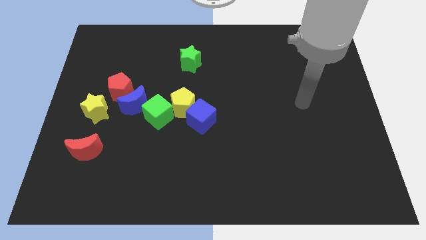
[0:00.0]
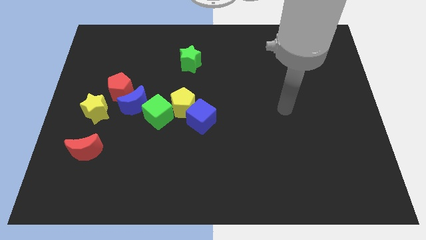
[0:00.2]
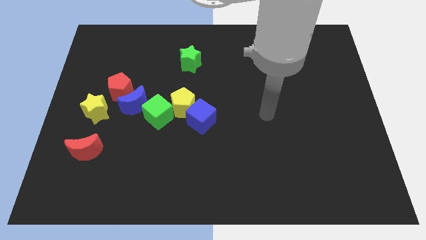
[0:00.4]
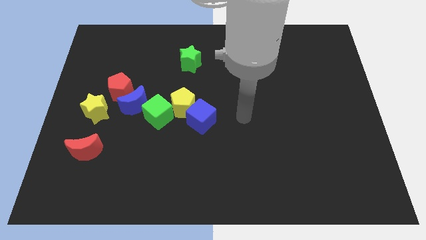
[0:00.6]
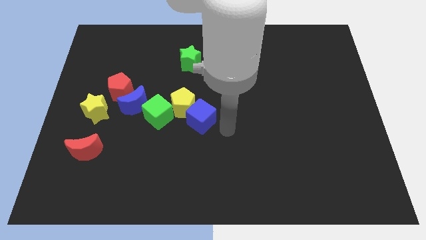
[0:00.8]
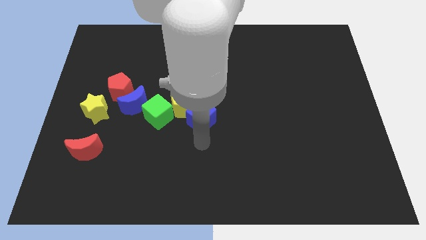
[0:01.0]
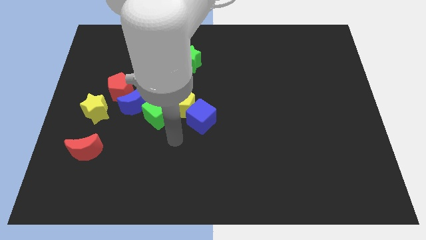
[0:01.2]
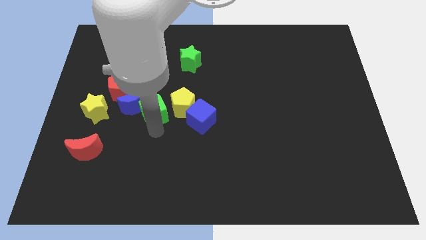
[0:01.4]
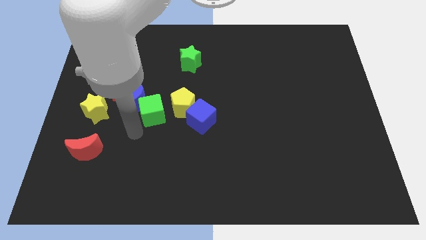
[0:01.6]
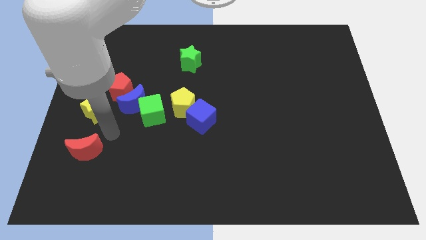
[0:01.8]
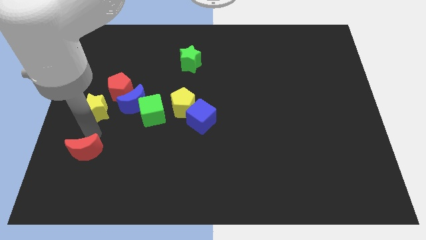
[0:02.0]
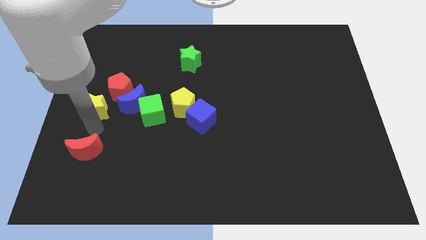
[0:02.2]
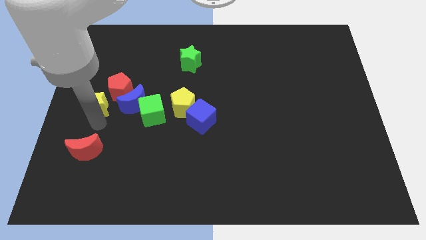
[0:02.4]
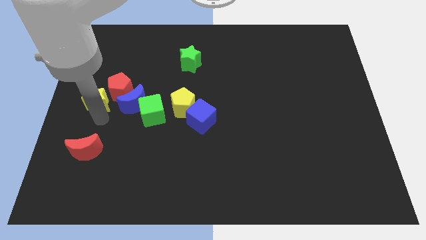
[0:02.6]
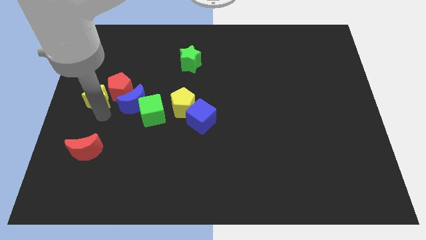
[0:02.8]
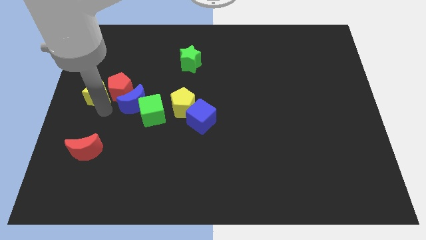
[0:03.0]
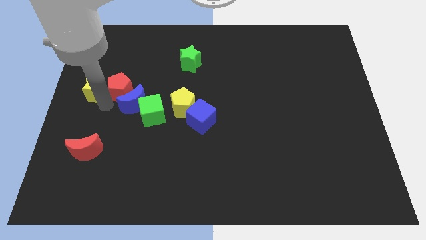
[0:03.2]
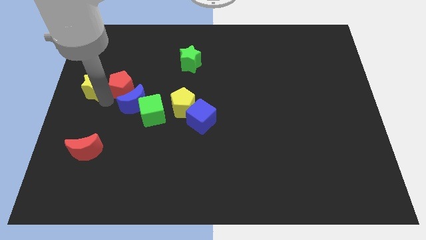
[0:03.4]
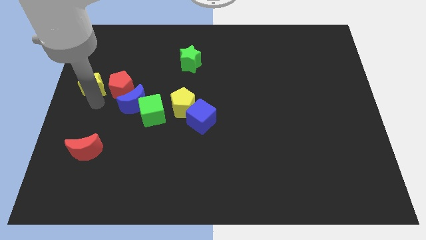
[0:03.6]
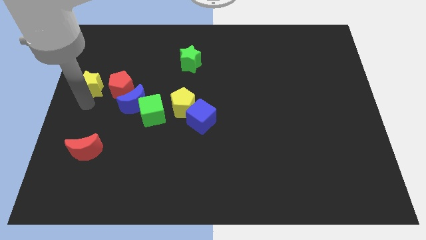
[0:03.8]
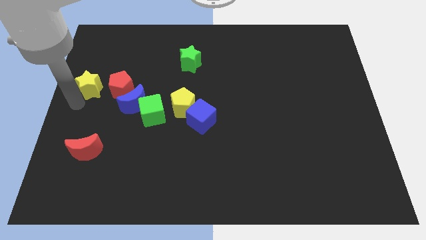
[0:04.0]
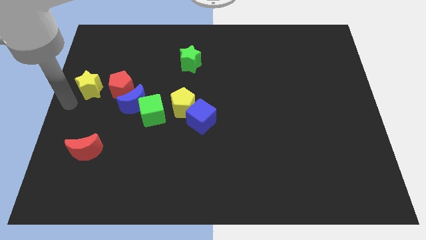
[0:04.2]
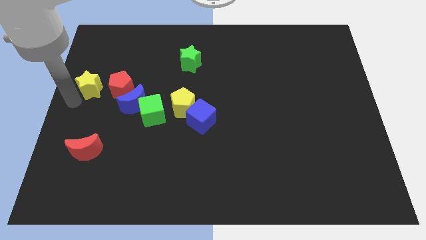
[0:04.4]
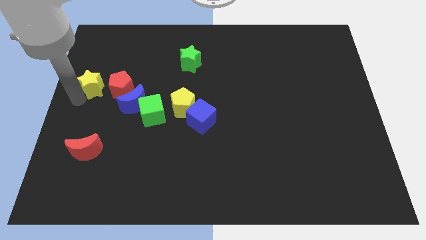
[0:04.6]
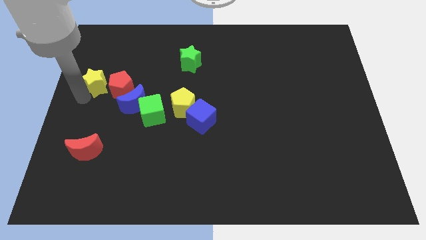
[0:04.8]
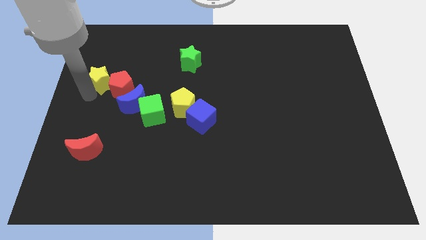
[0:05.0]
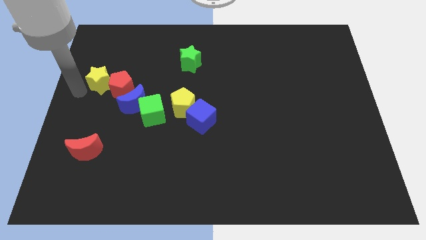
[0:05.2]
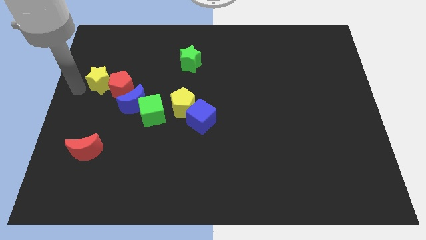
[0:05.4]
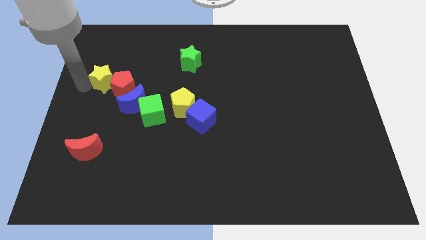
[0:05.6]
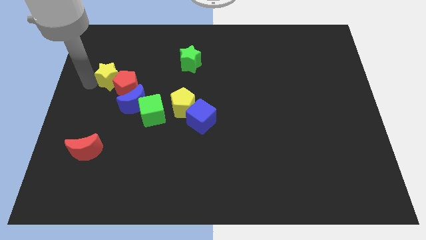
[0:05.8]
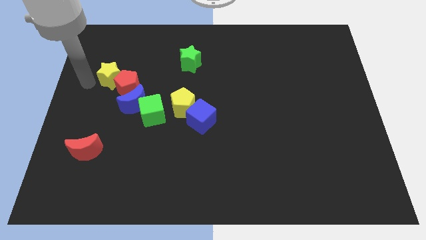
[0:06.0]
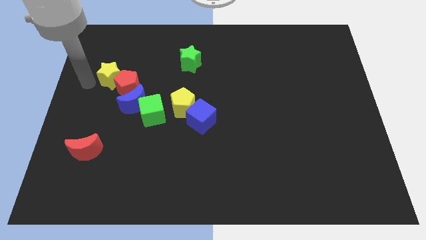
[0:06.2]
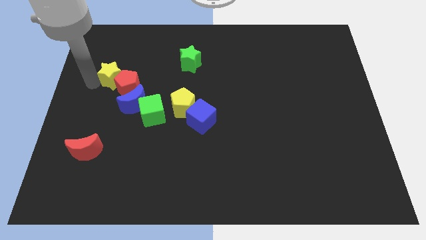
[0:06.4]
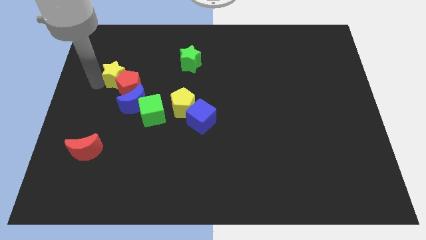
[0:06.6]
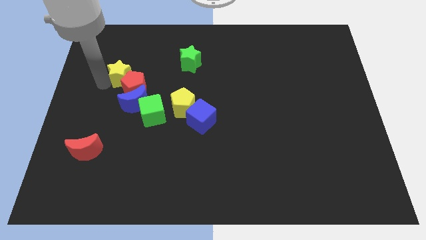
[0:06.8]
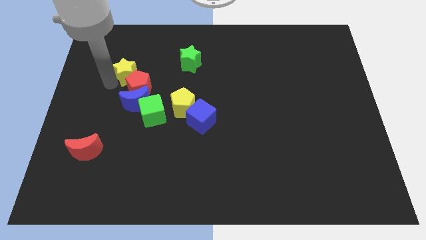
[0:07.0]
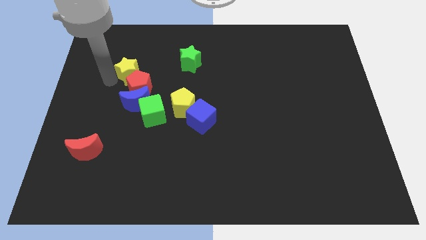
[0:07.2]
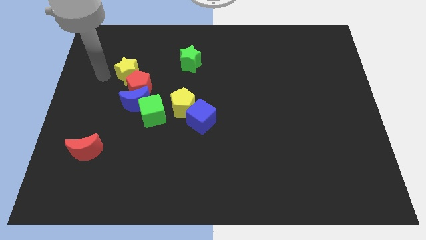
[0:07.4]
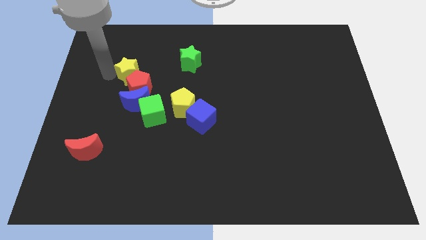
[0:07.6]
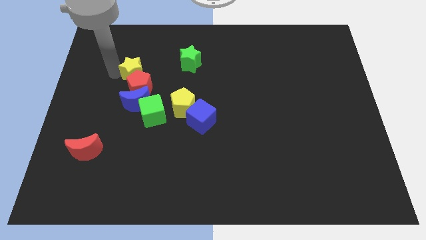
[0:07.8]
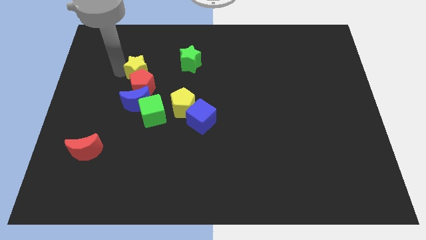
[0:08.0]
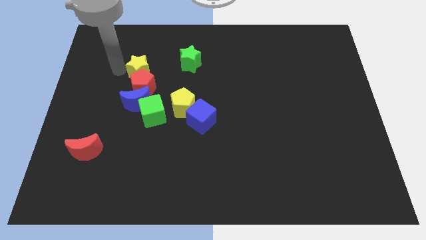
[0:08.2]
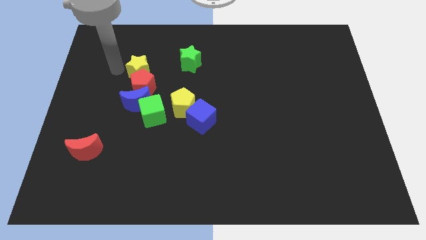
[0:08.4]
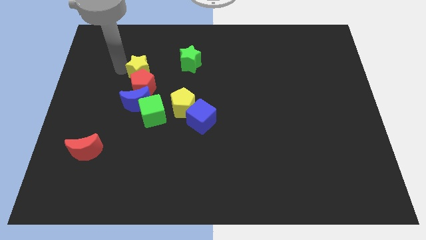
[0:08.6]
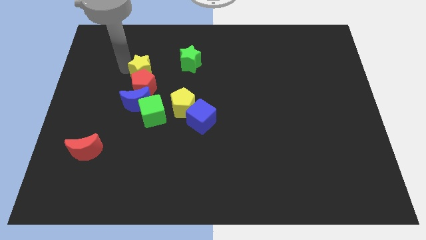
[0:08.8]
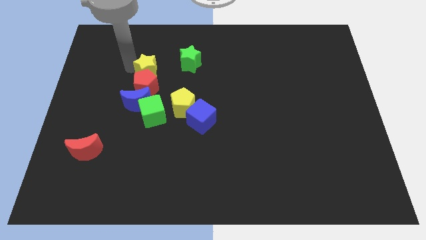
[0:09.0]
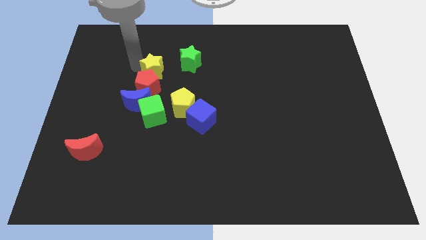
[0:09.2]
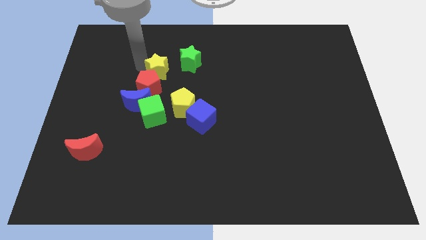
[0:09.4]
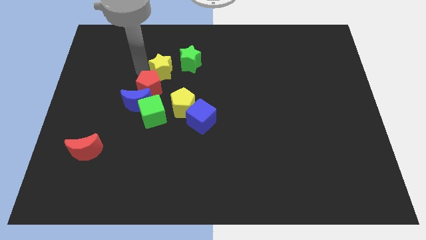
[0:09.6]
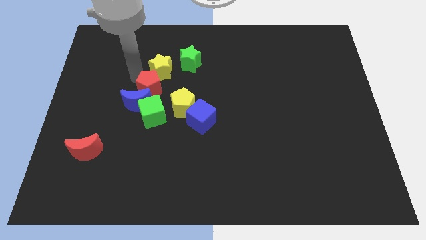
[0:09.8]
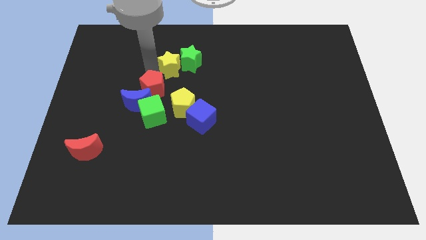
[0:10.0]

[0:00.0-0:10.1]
move the yellow star close to the green star

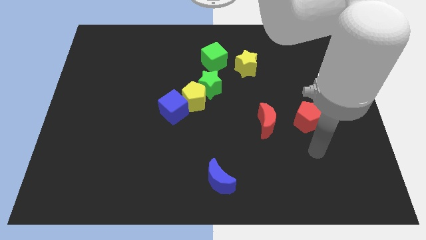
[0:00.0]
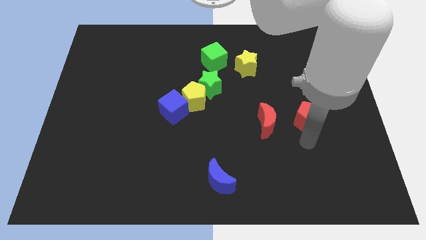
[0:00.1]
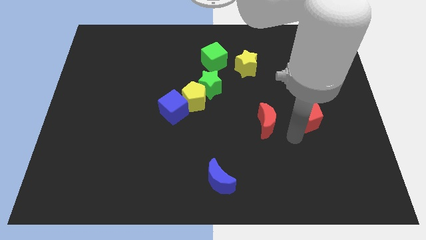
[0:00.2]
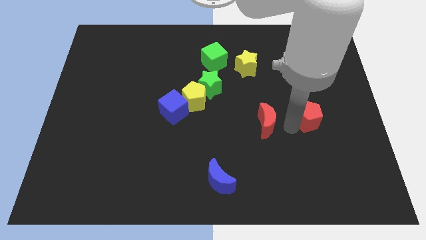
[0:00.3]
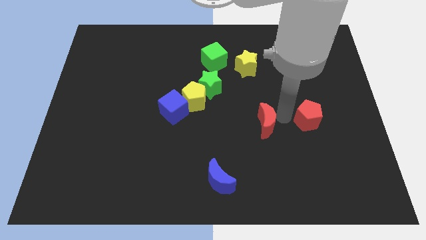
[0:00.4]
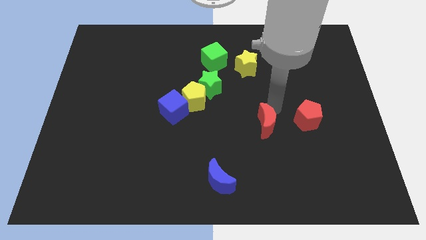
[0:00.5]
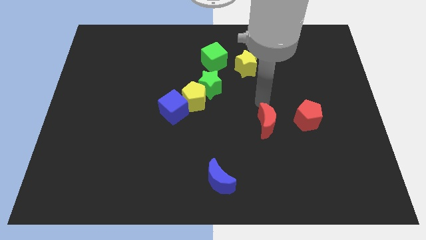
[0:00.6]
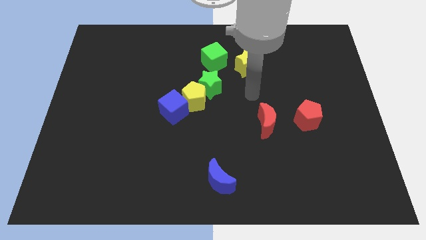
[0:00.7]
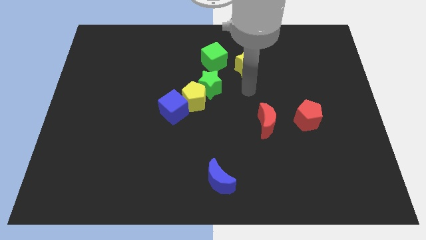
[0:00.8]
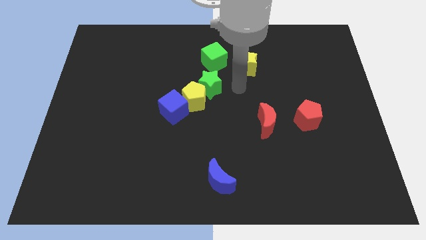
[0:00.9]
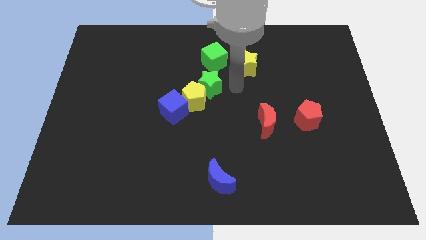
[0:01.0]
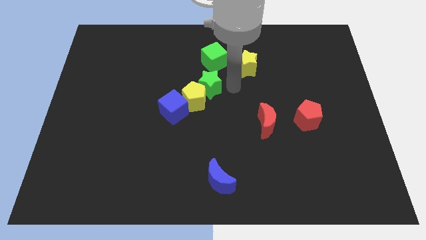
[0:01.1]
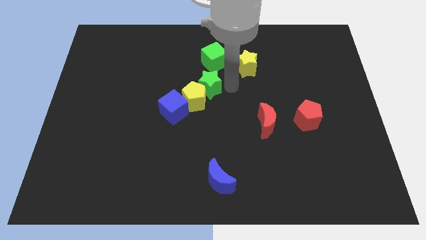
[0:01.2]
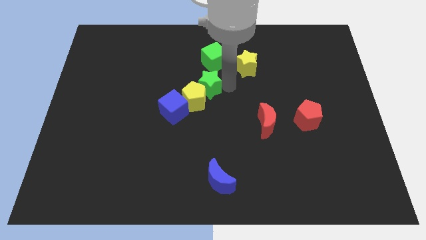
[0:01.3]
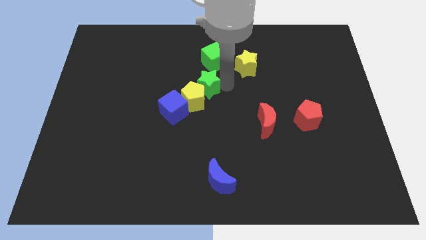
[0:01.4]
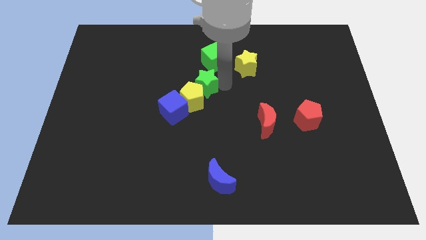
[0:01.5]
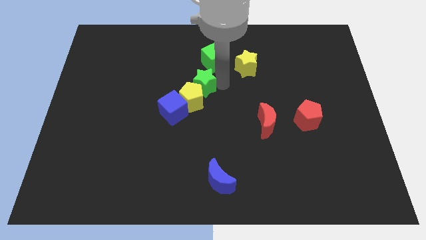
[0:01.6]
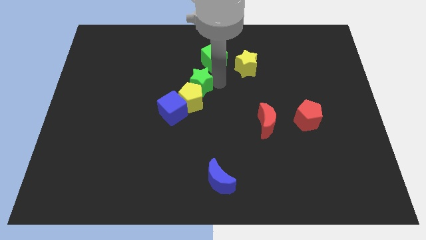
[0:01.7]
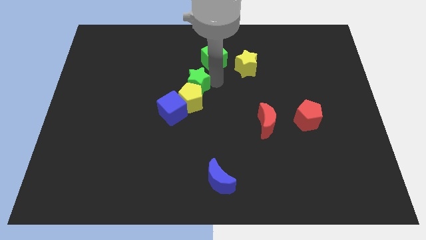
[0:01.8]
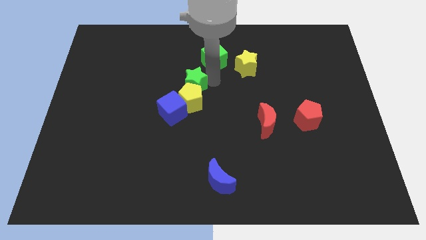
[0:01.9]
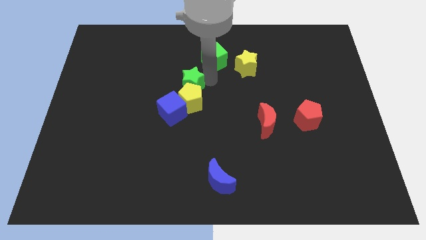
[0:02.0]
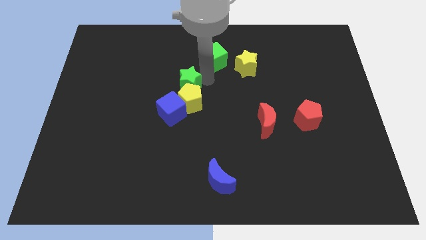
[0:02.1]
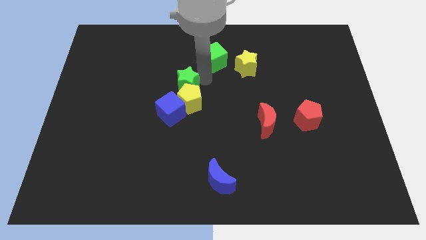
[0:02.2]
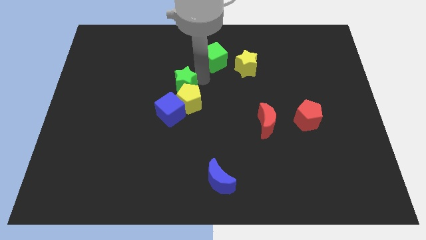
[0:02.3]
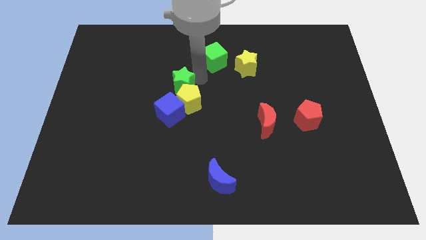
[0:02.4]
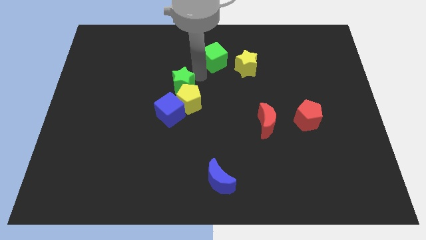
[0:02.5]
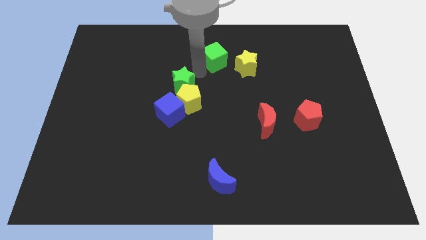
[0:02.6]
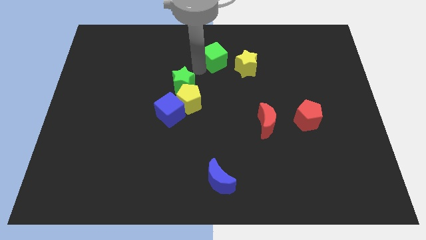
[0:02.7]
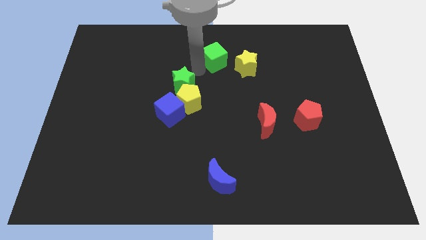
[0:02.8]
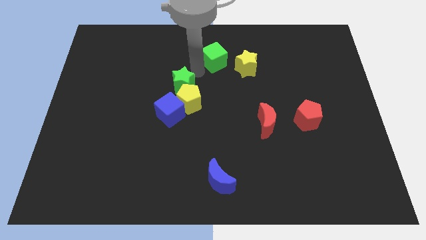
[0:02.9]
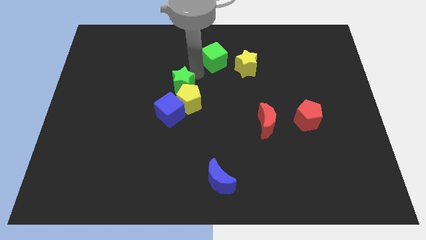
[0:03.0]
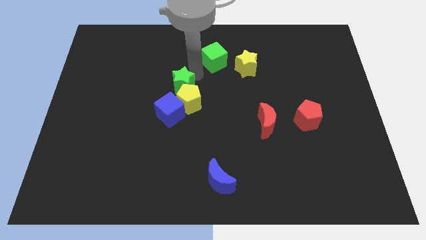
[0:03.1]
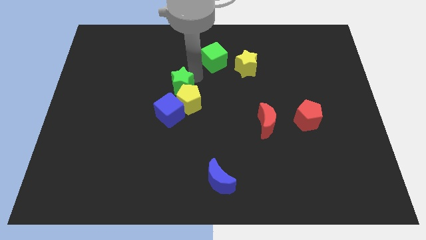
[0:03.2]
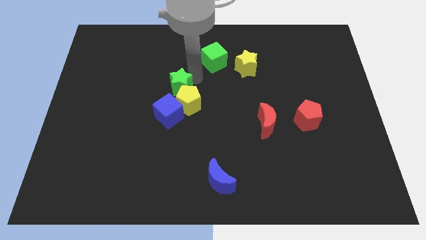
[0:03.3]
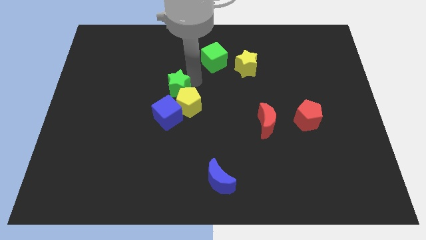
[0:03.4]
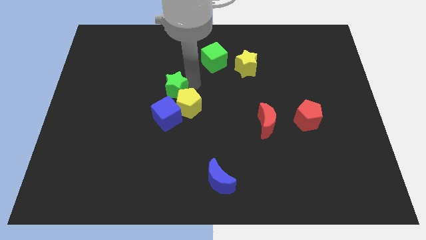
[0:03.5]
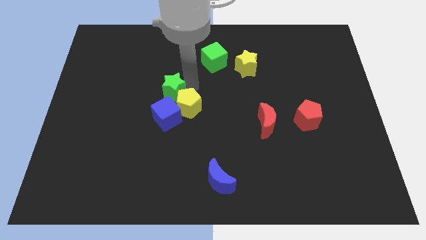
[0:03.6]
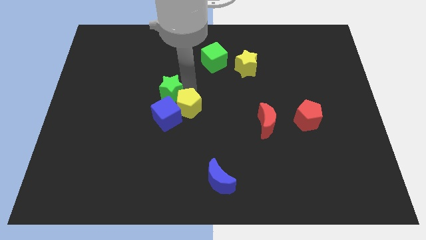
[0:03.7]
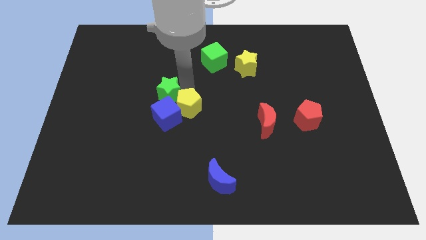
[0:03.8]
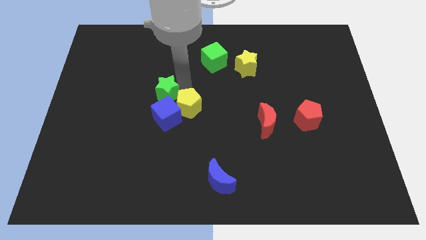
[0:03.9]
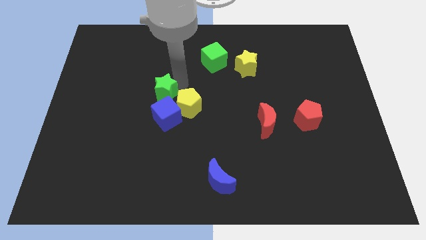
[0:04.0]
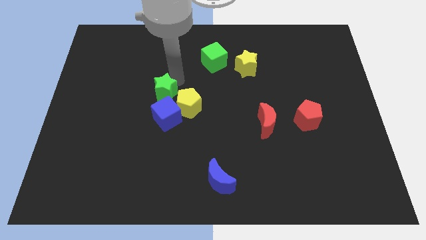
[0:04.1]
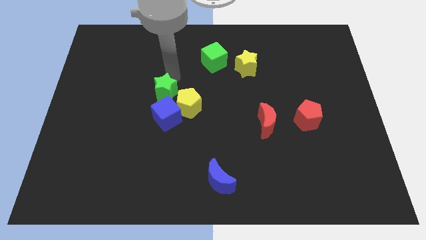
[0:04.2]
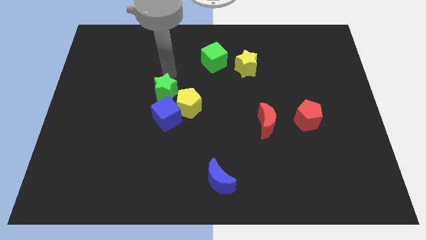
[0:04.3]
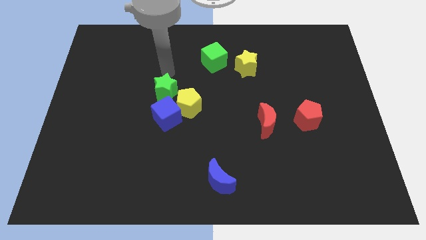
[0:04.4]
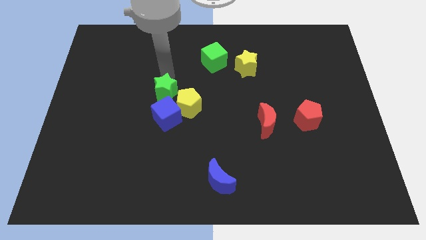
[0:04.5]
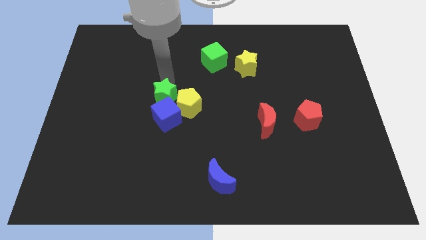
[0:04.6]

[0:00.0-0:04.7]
push the green star to the blue cube
